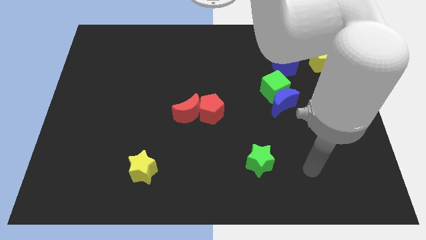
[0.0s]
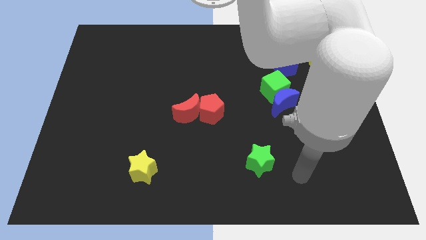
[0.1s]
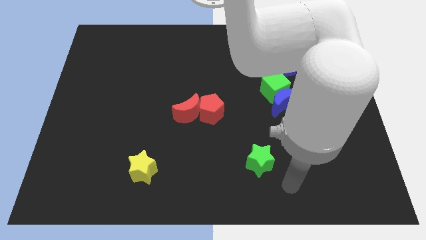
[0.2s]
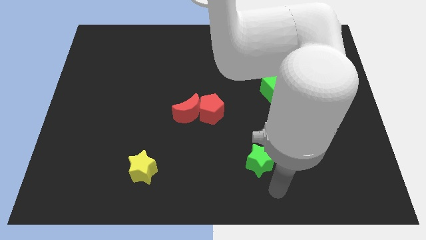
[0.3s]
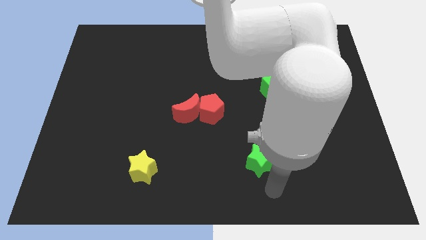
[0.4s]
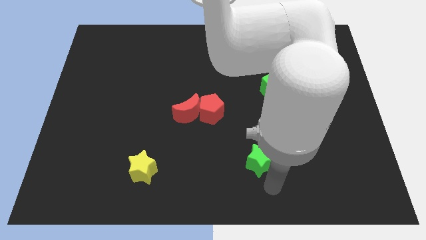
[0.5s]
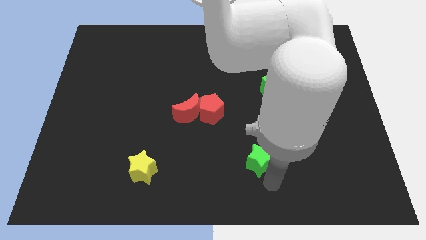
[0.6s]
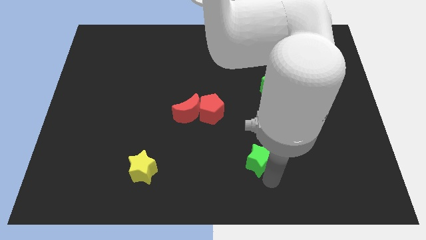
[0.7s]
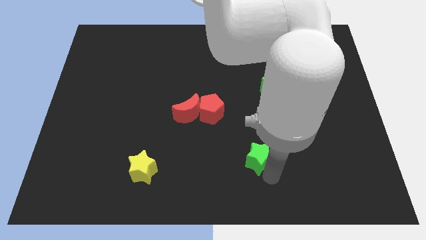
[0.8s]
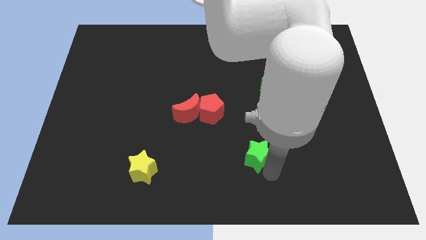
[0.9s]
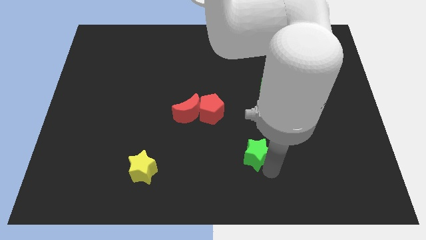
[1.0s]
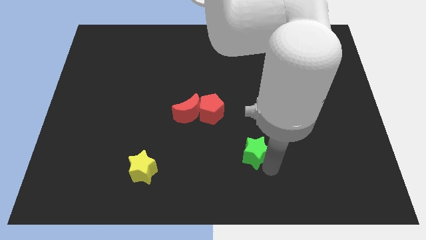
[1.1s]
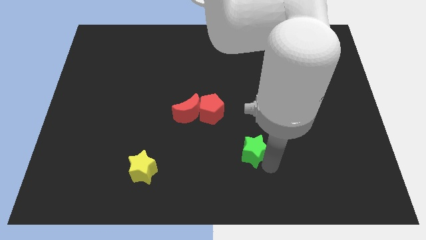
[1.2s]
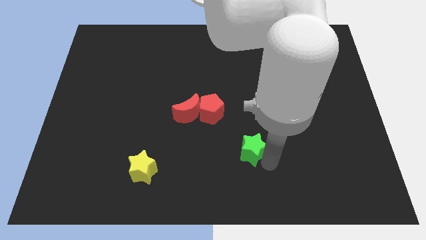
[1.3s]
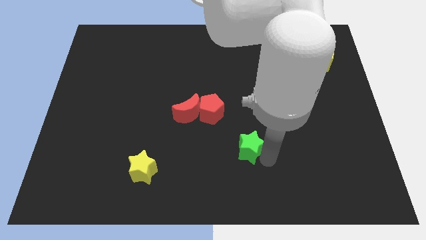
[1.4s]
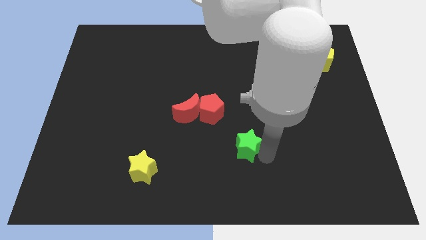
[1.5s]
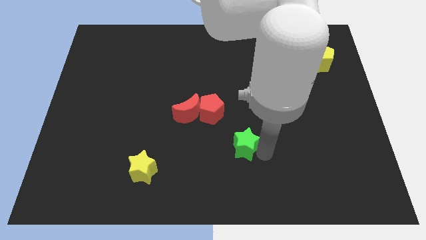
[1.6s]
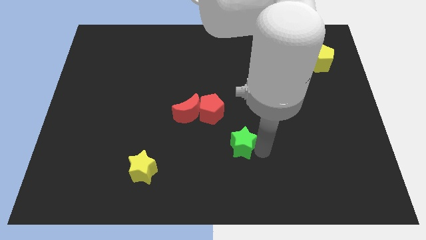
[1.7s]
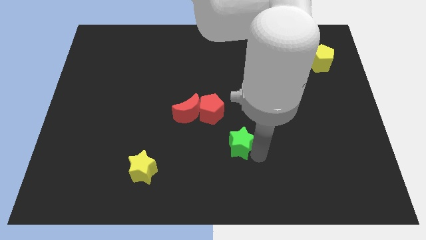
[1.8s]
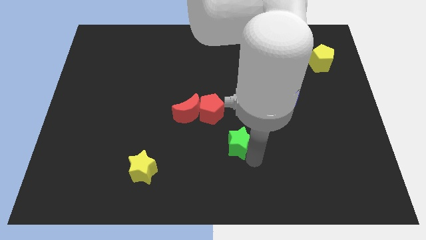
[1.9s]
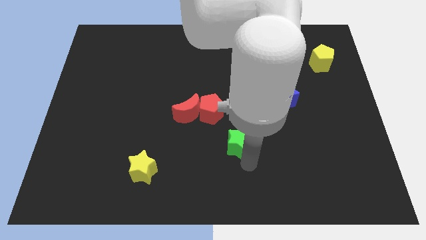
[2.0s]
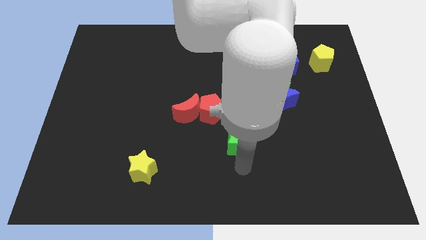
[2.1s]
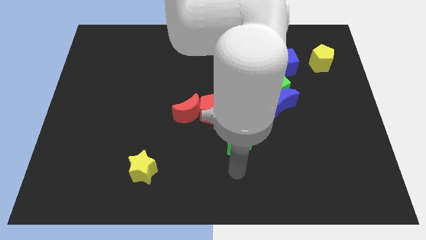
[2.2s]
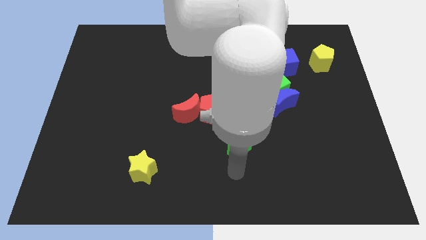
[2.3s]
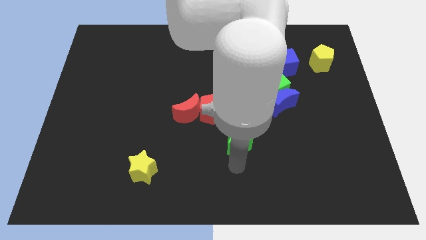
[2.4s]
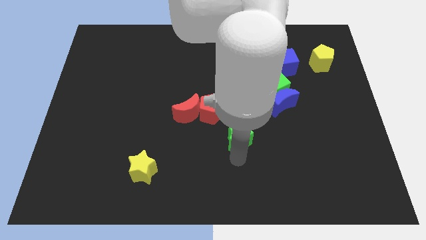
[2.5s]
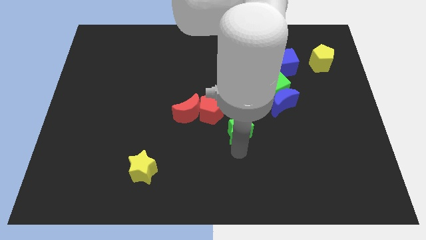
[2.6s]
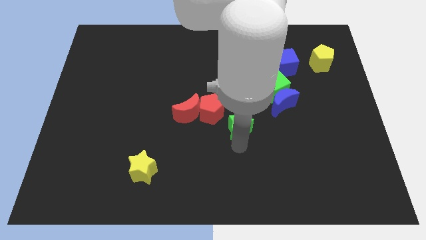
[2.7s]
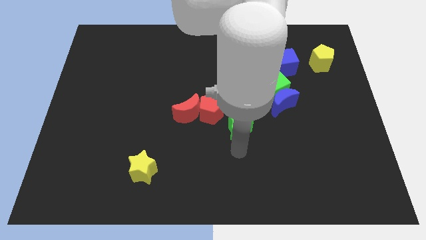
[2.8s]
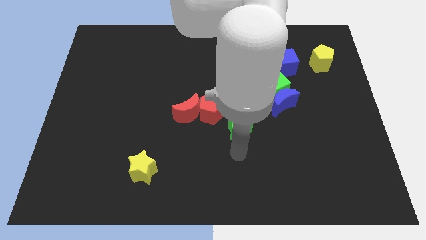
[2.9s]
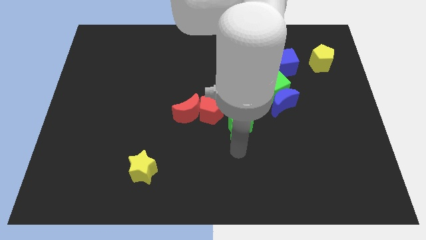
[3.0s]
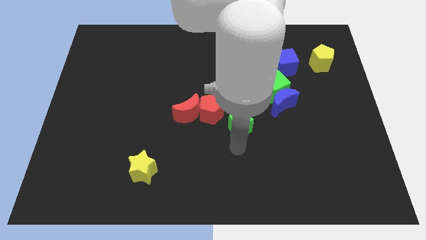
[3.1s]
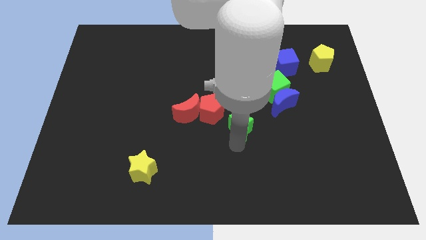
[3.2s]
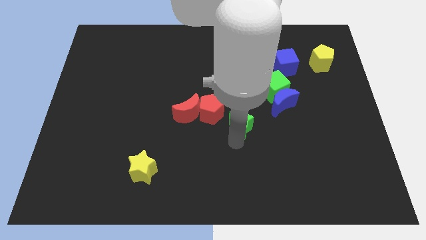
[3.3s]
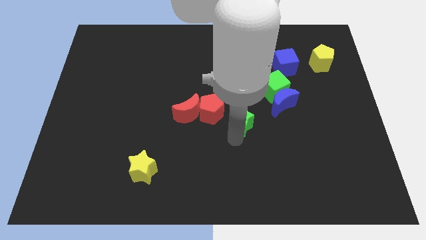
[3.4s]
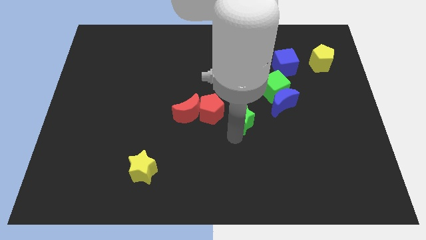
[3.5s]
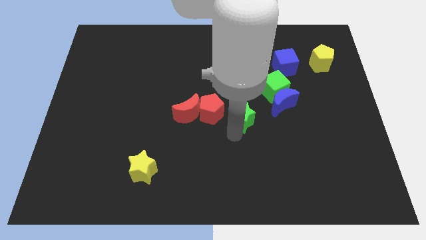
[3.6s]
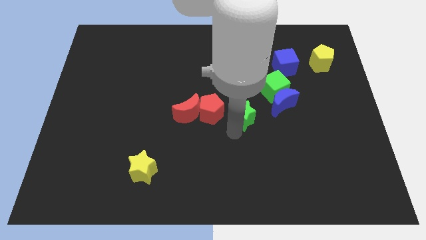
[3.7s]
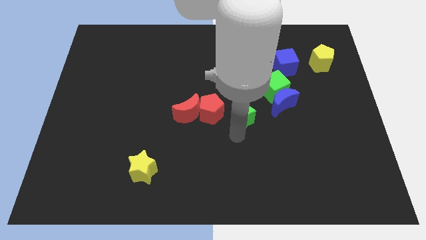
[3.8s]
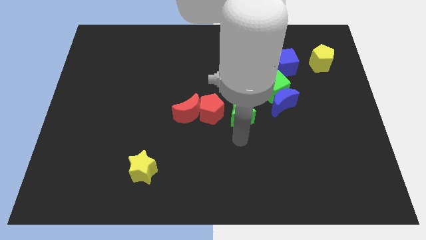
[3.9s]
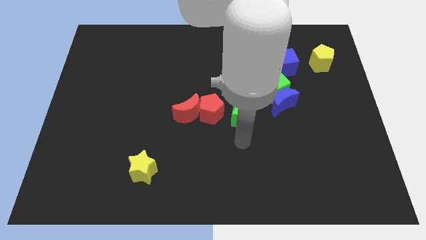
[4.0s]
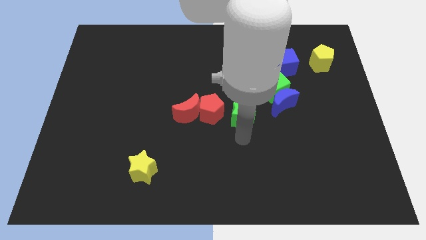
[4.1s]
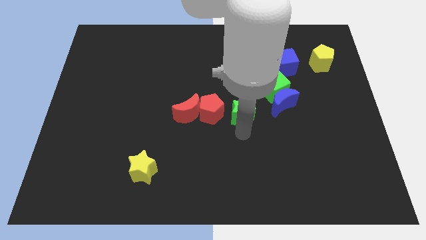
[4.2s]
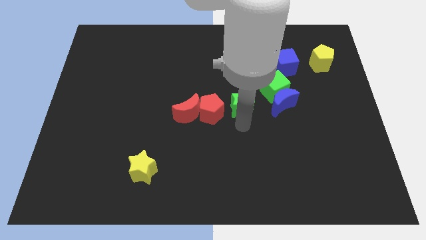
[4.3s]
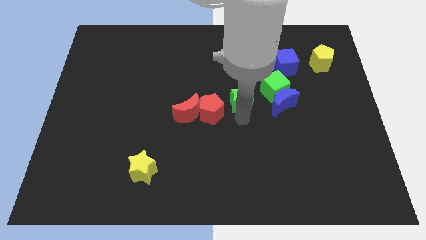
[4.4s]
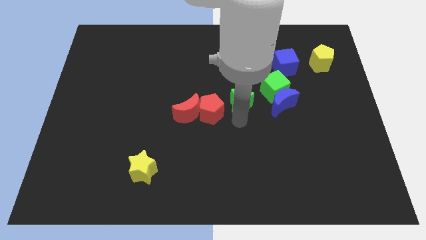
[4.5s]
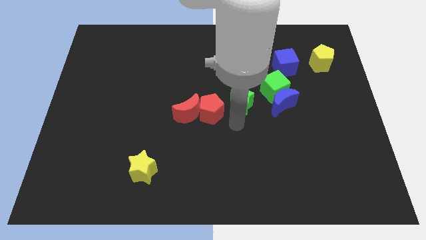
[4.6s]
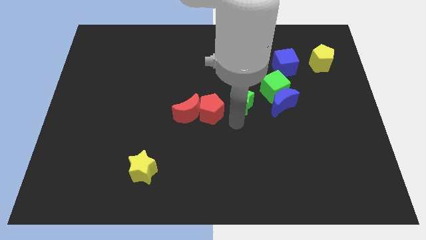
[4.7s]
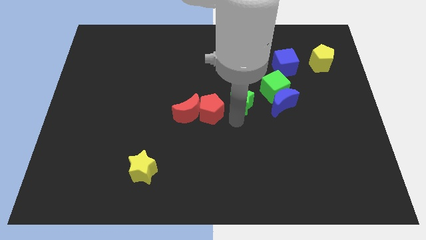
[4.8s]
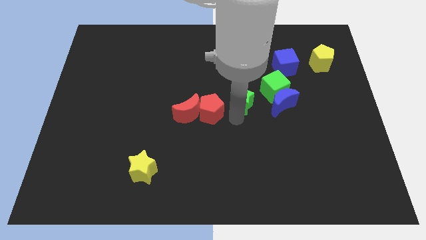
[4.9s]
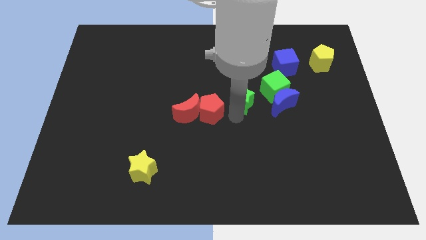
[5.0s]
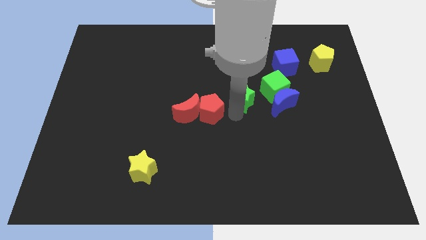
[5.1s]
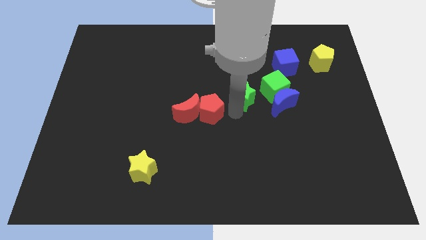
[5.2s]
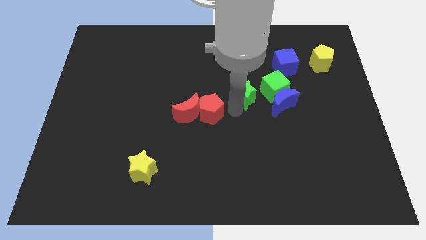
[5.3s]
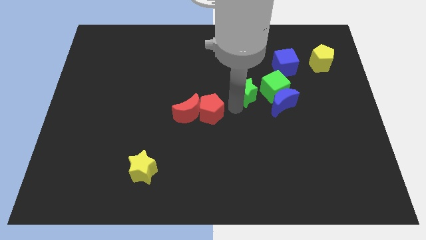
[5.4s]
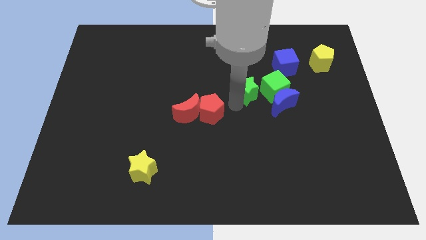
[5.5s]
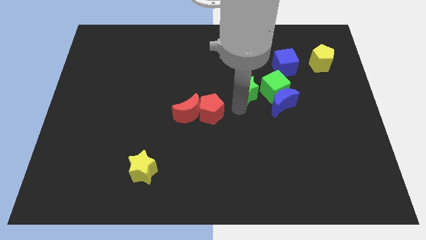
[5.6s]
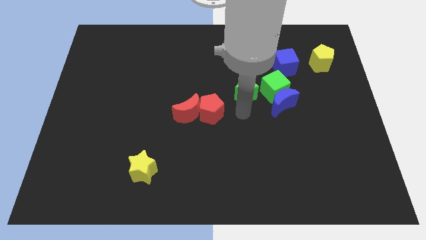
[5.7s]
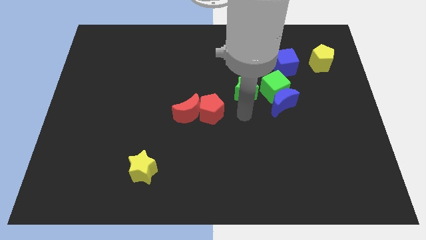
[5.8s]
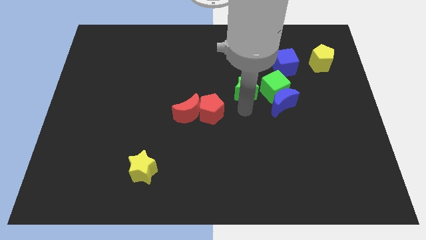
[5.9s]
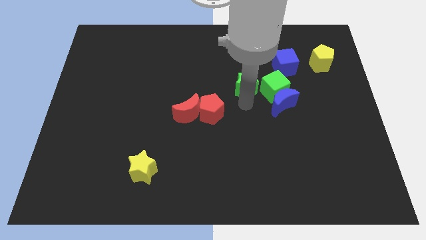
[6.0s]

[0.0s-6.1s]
push the green star upwards

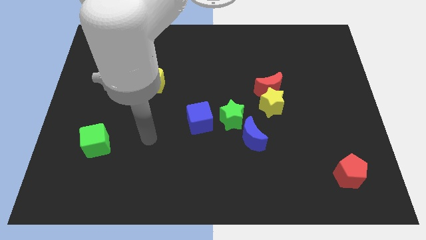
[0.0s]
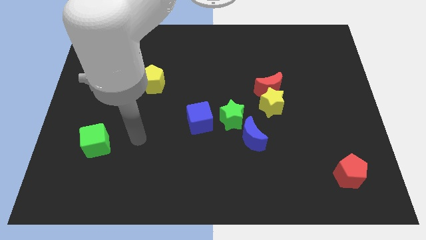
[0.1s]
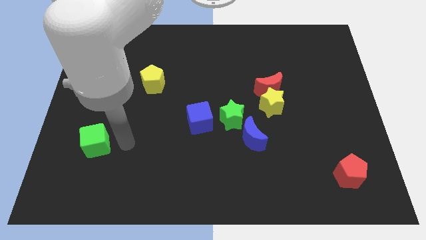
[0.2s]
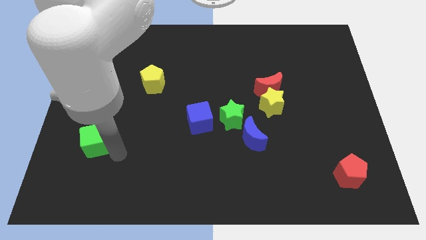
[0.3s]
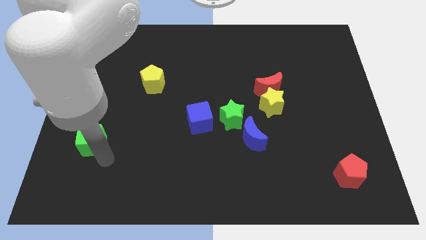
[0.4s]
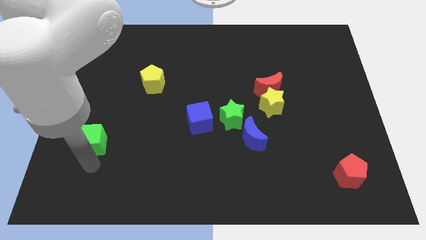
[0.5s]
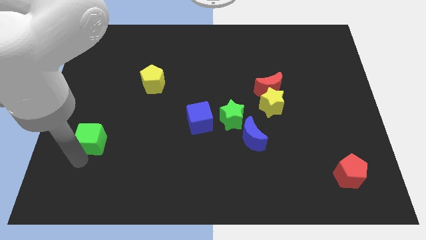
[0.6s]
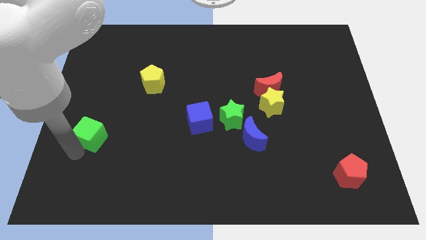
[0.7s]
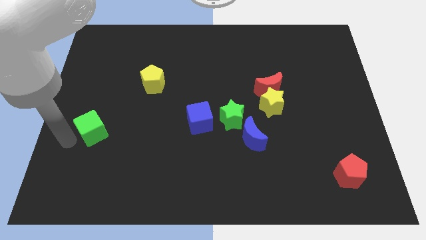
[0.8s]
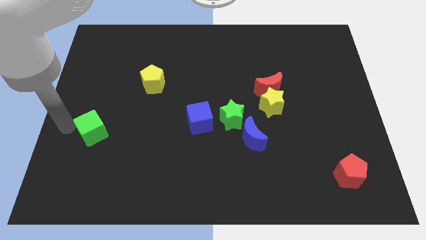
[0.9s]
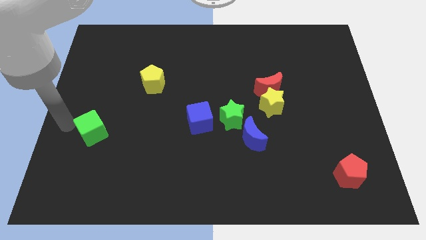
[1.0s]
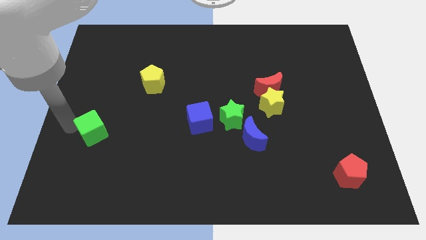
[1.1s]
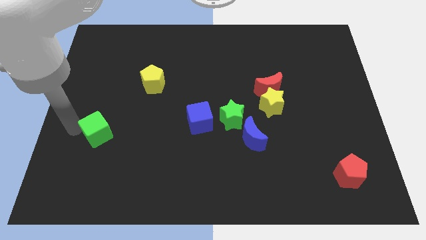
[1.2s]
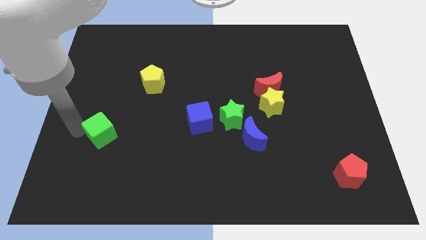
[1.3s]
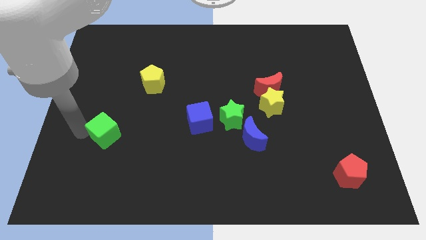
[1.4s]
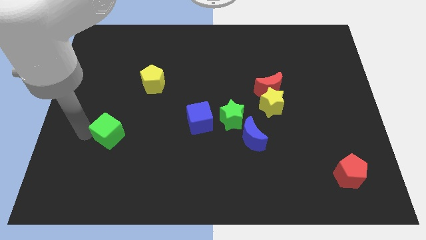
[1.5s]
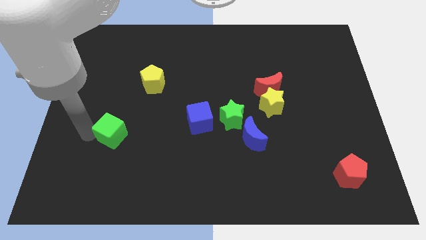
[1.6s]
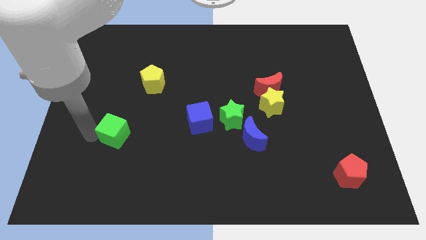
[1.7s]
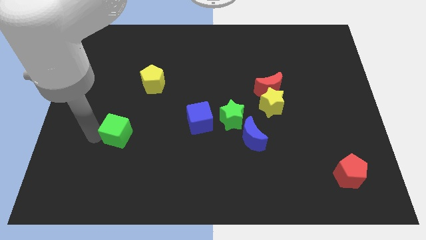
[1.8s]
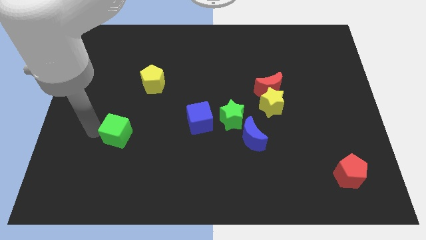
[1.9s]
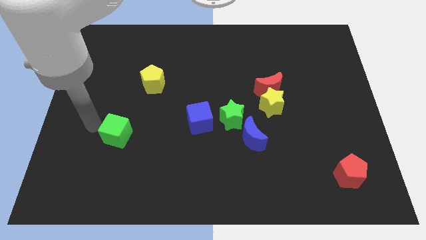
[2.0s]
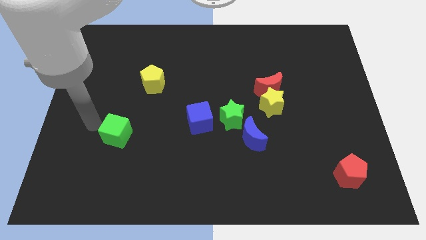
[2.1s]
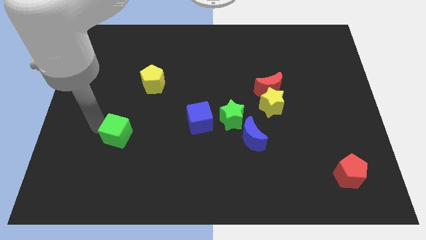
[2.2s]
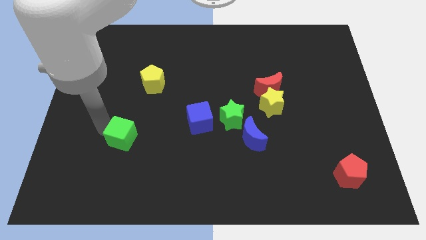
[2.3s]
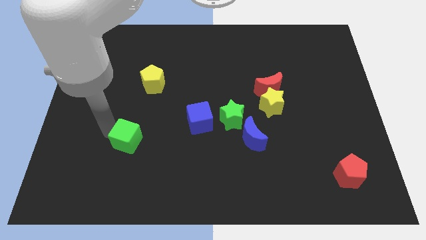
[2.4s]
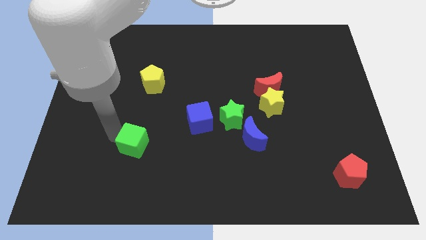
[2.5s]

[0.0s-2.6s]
push the green cube to the right a little
